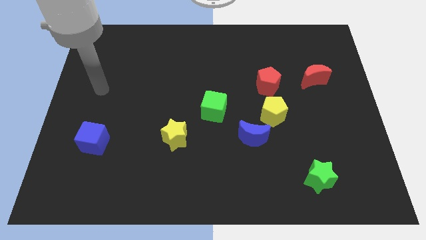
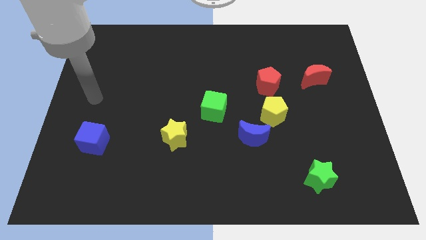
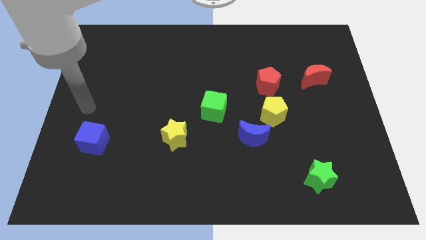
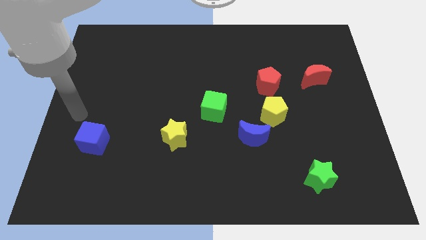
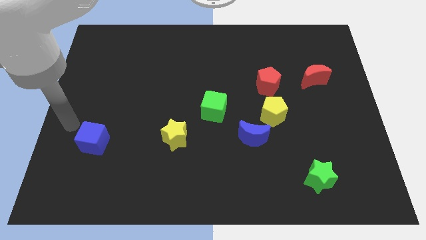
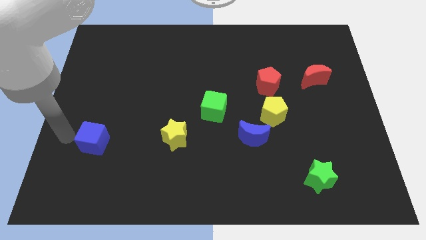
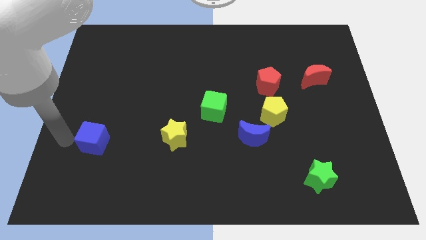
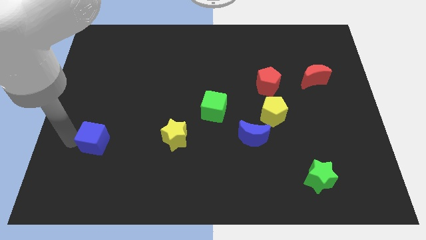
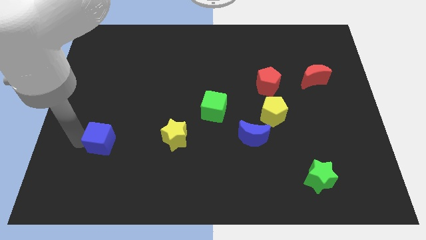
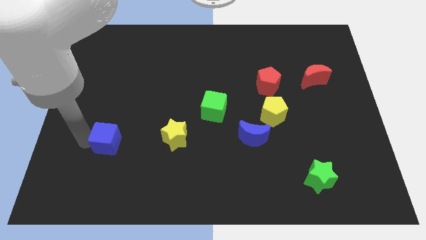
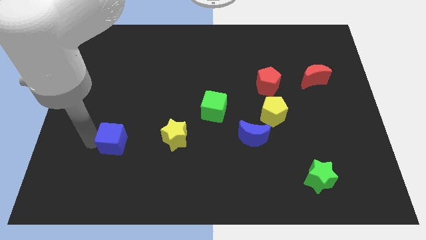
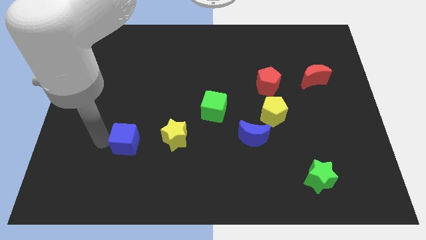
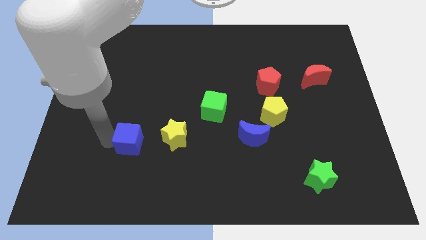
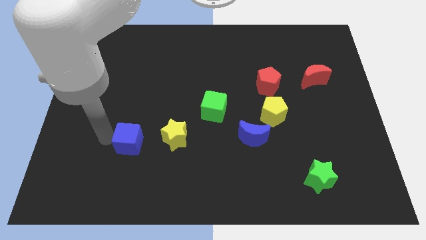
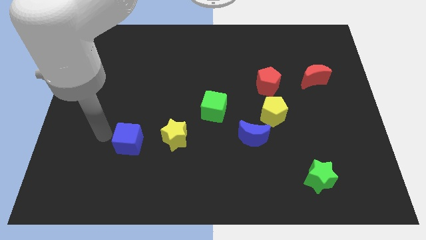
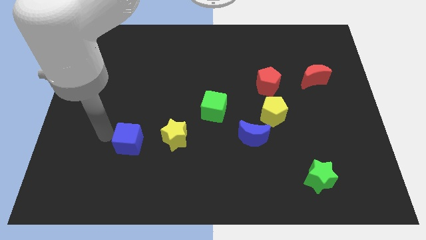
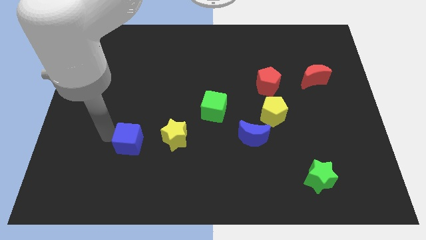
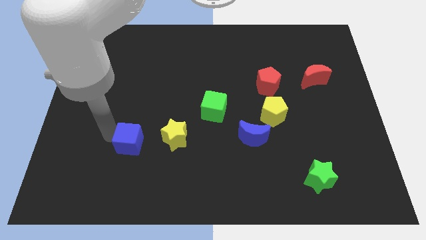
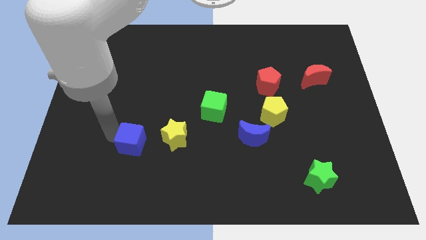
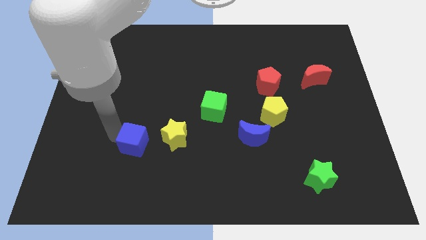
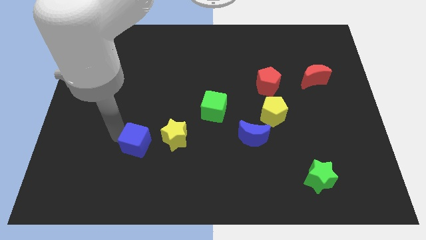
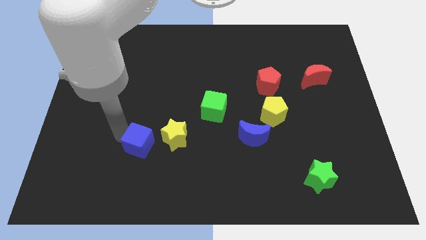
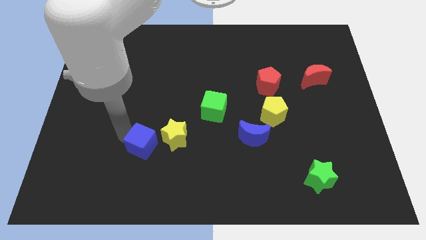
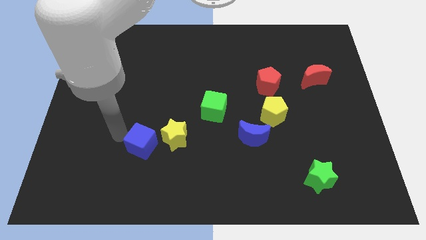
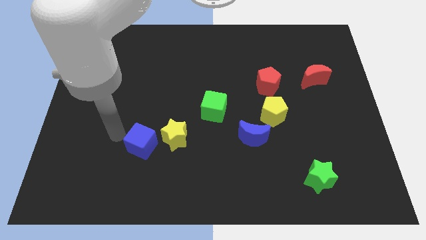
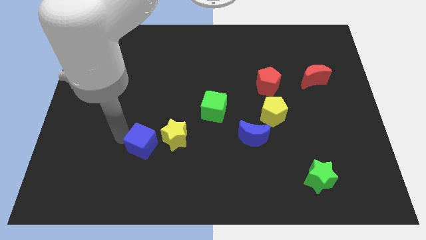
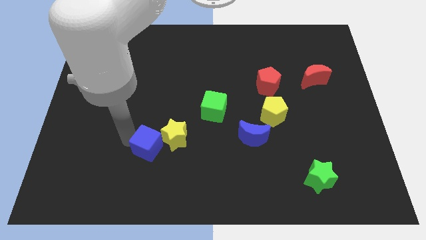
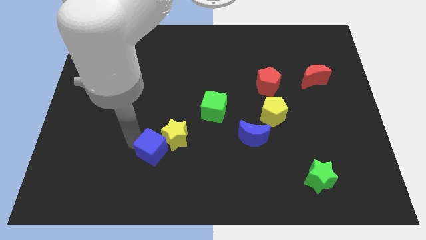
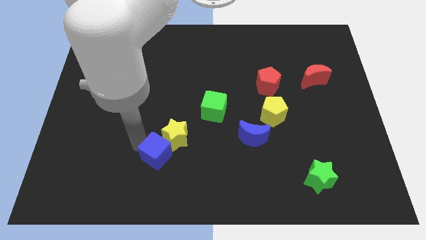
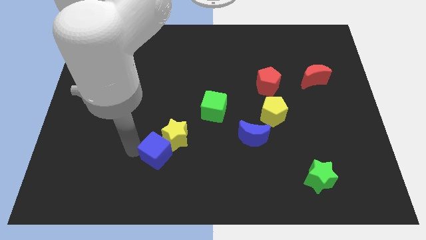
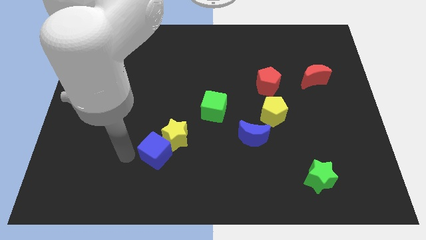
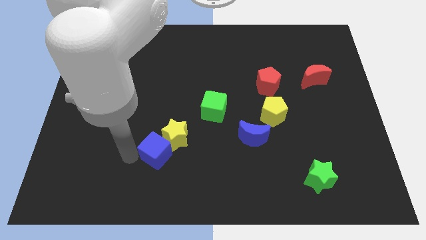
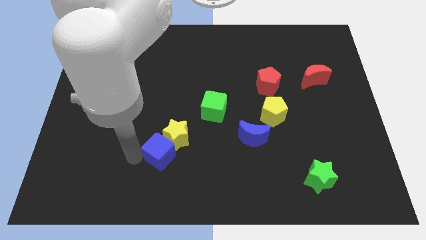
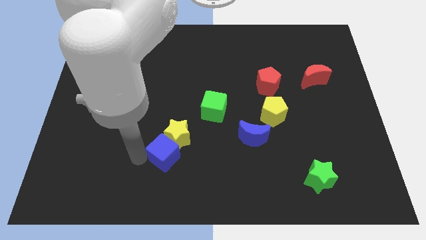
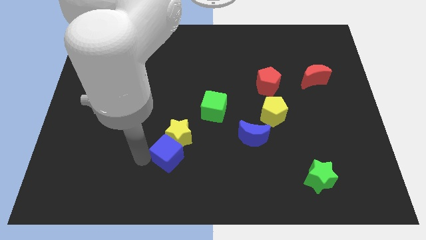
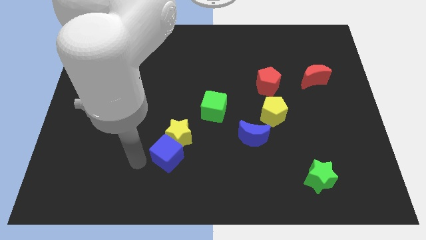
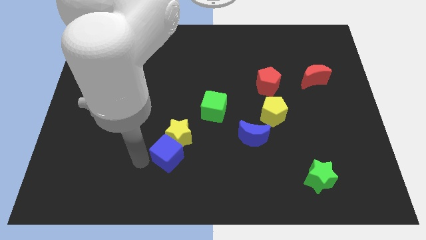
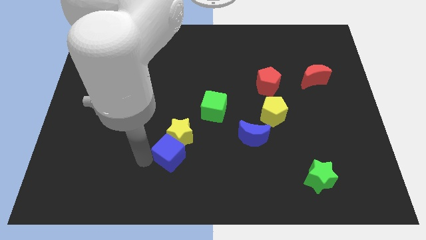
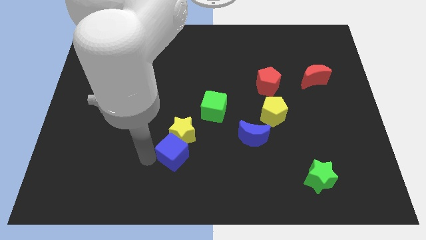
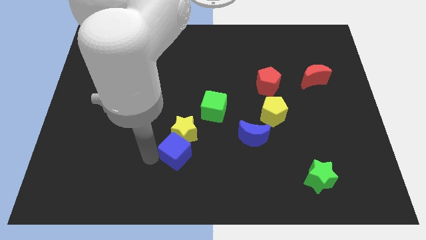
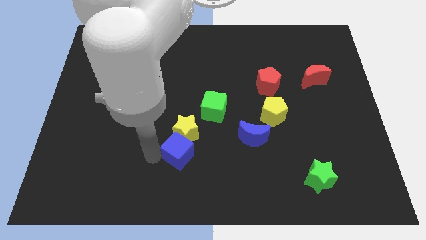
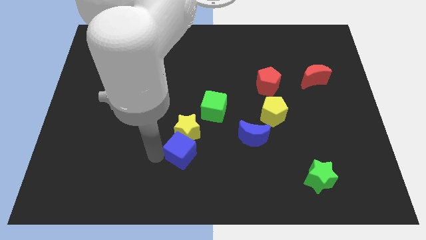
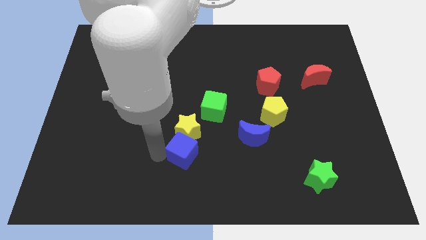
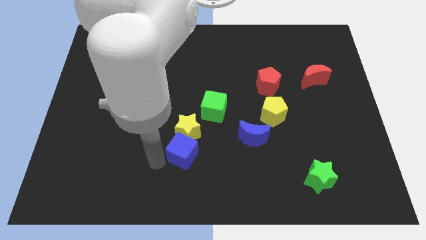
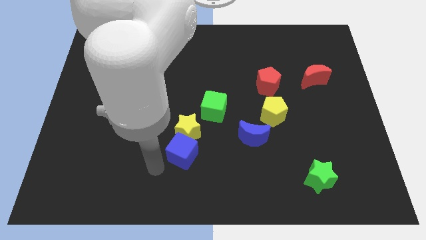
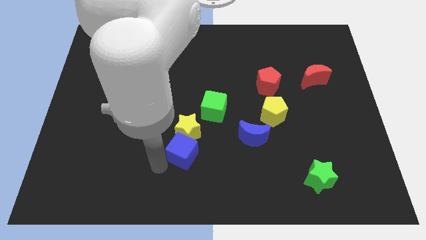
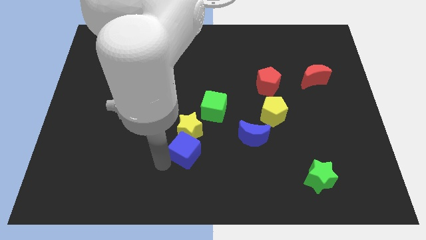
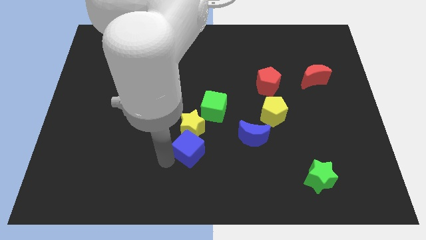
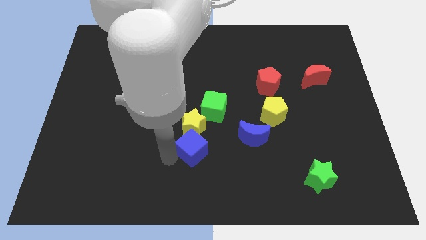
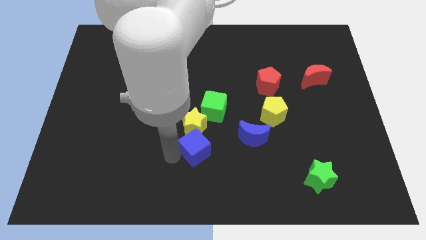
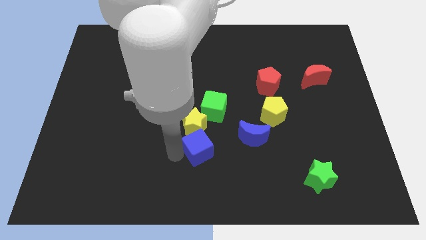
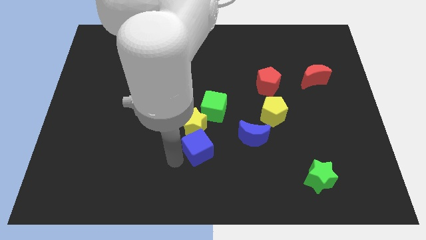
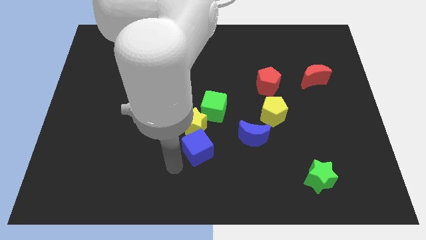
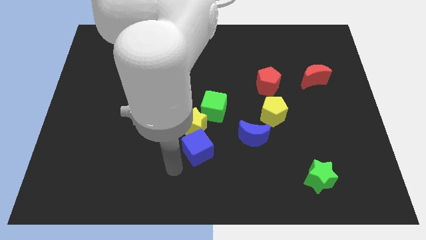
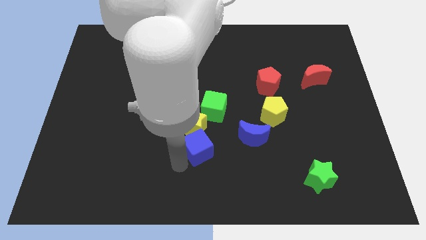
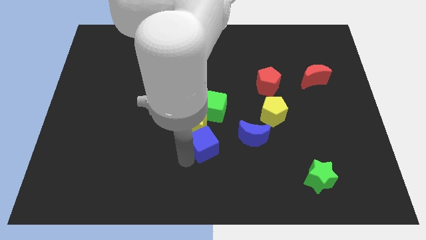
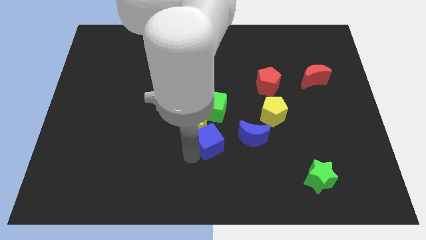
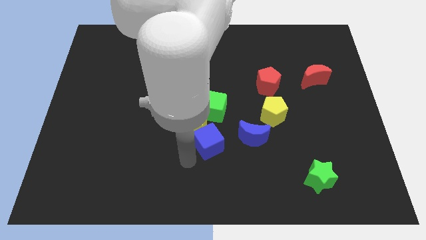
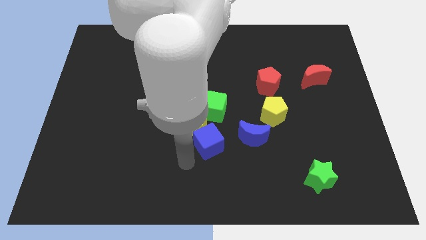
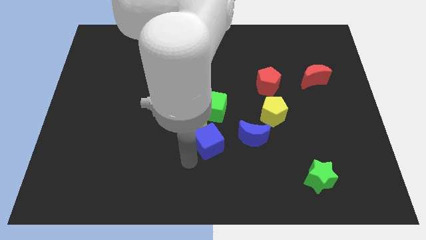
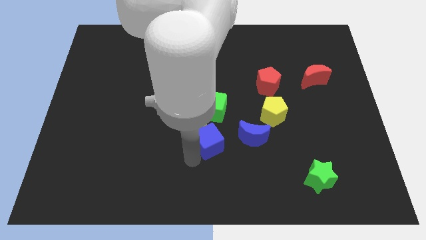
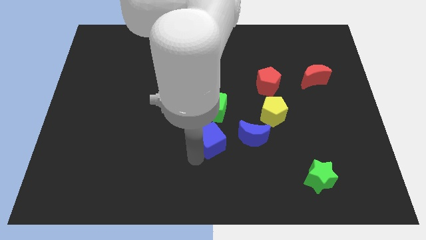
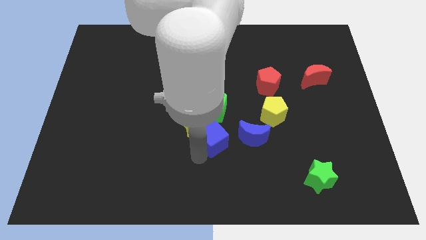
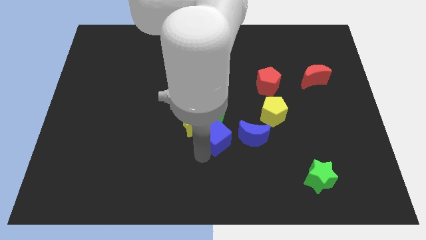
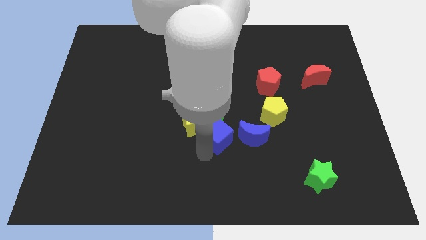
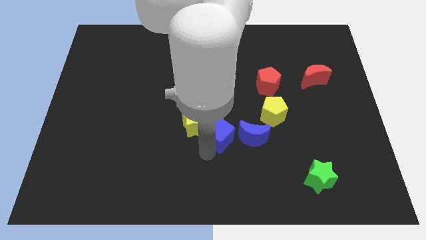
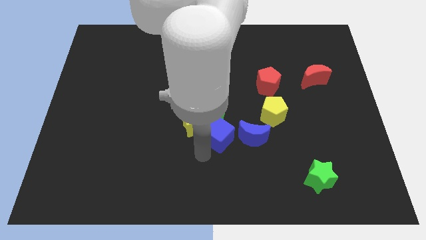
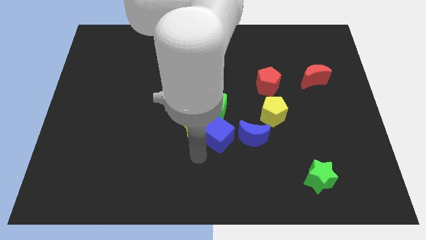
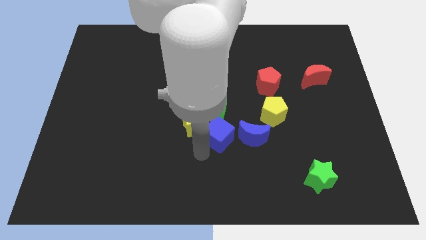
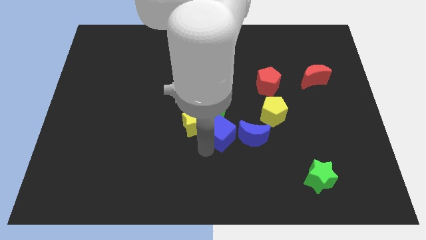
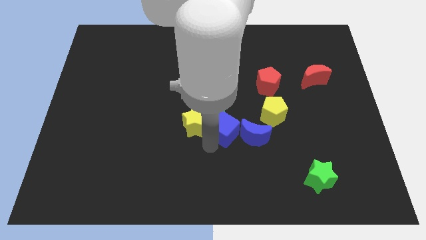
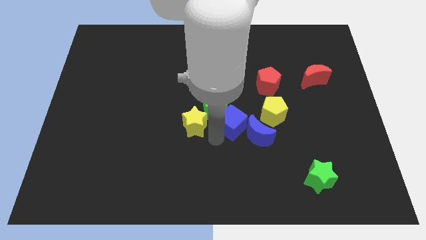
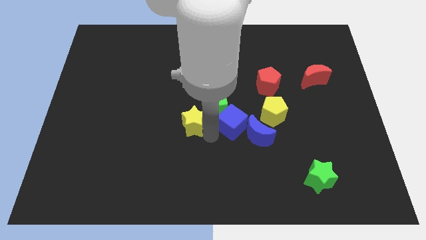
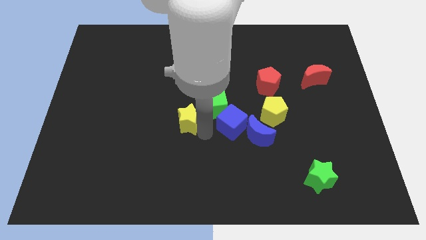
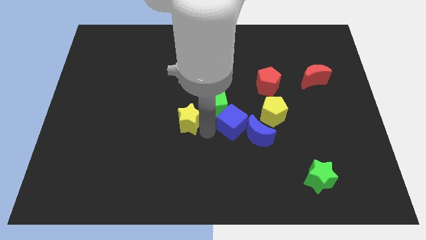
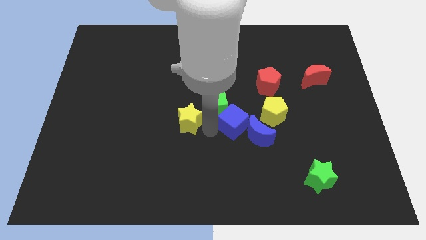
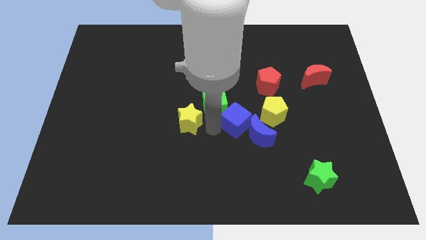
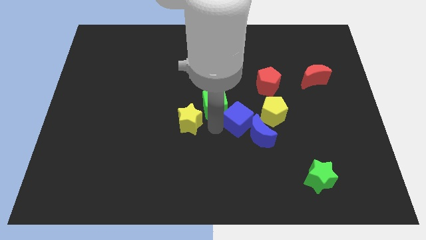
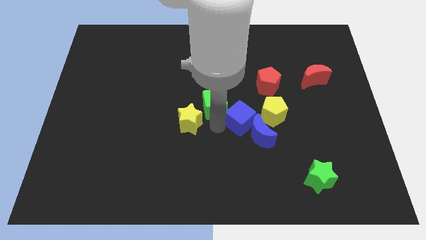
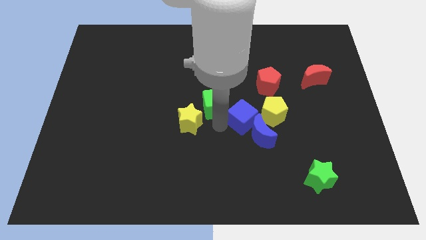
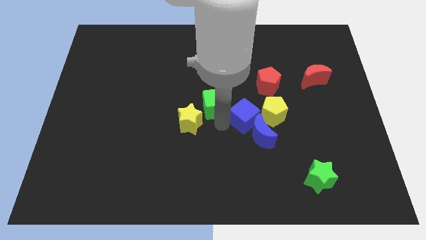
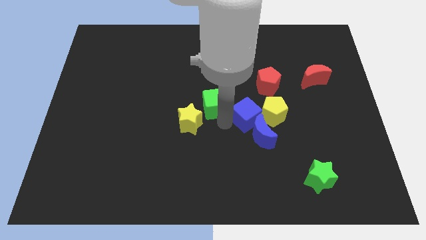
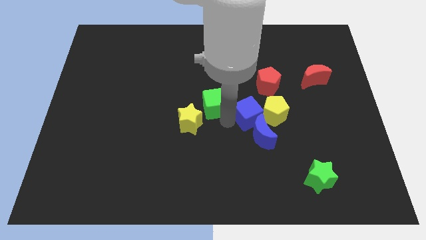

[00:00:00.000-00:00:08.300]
put the blue cube to the yellow pentagon
